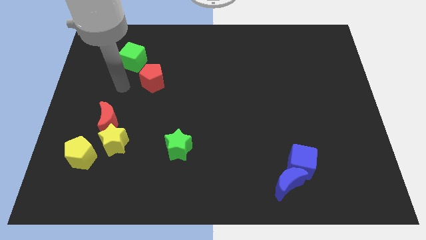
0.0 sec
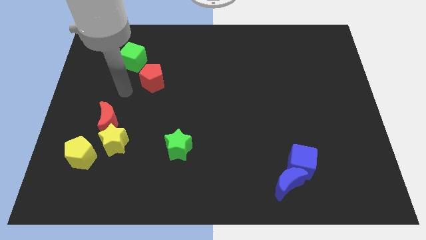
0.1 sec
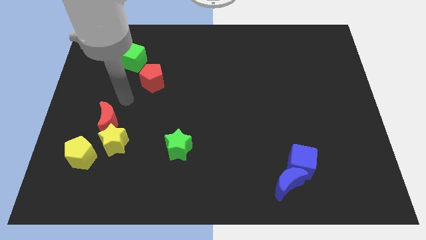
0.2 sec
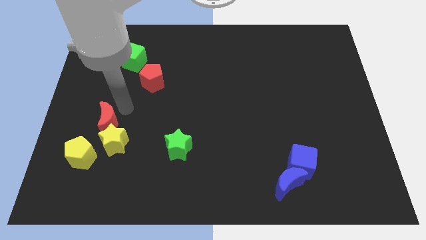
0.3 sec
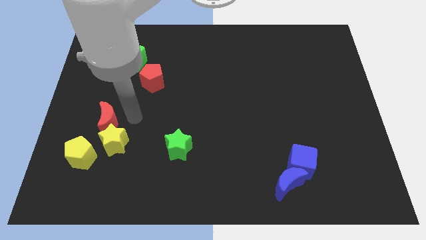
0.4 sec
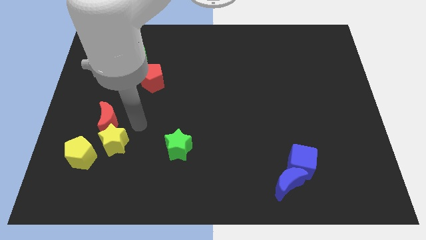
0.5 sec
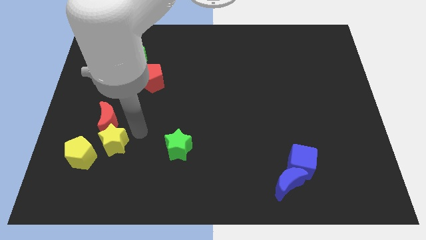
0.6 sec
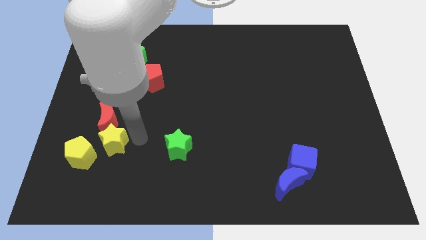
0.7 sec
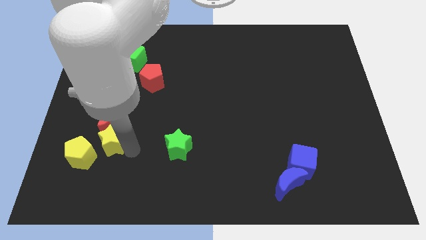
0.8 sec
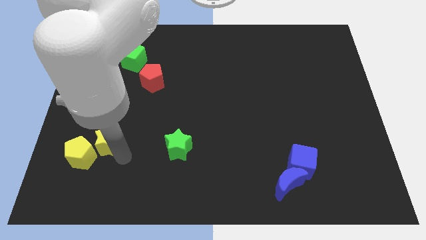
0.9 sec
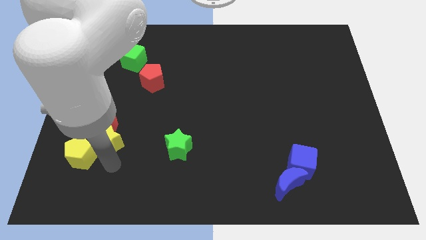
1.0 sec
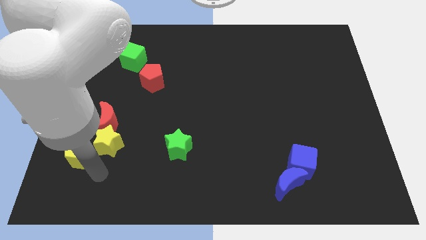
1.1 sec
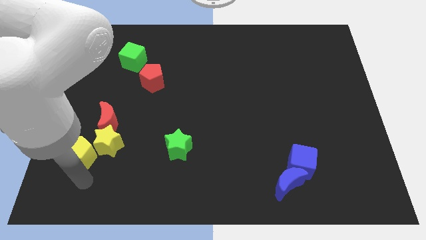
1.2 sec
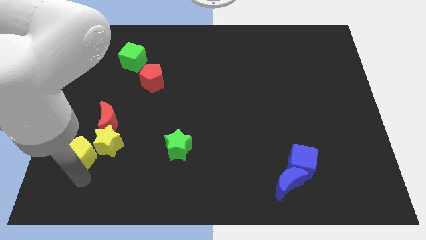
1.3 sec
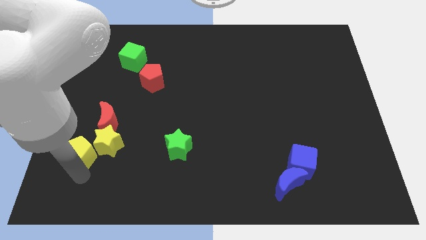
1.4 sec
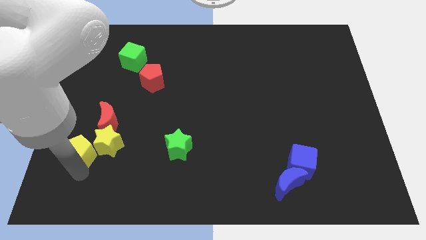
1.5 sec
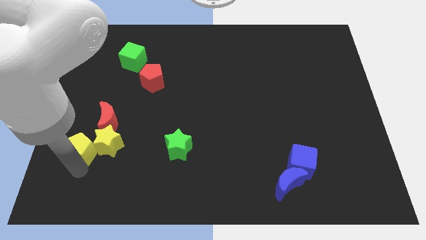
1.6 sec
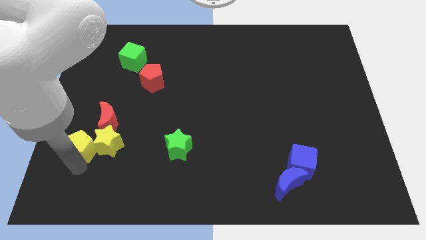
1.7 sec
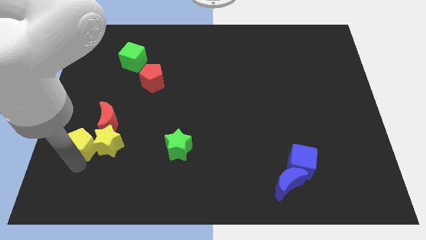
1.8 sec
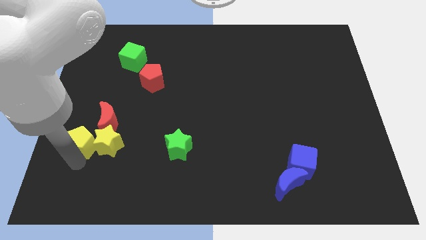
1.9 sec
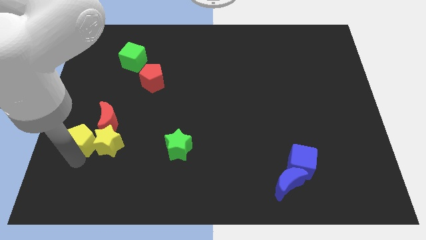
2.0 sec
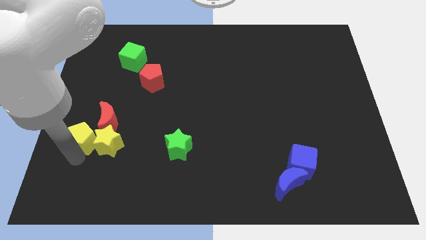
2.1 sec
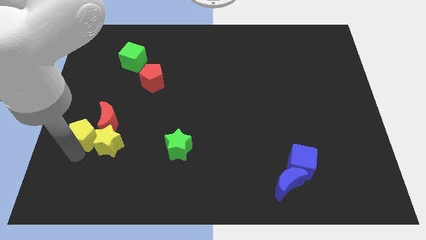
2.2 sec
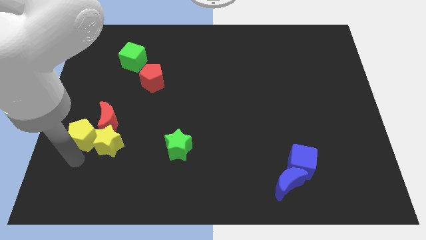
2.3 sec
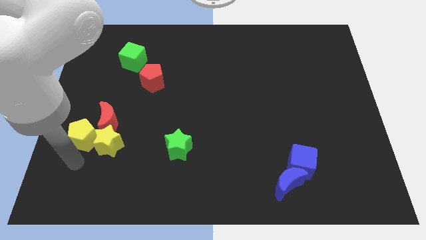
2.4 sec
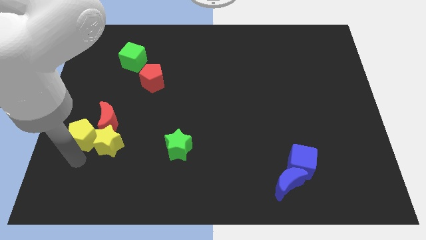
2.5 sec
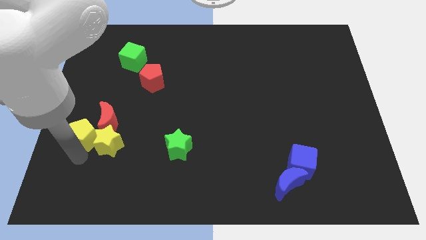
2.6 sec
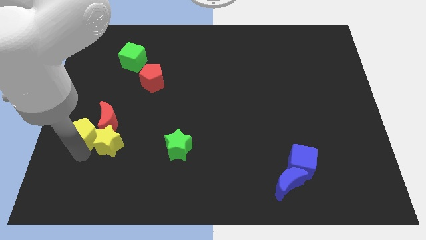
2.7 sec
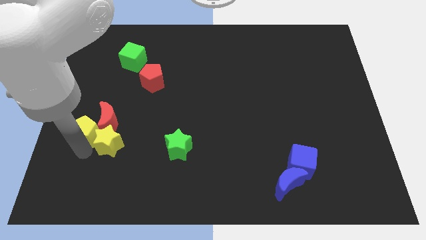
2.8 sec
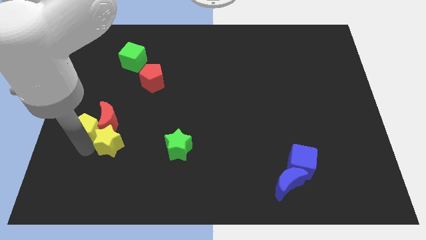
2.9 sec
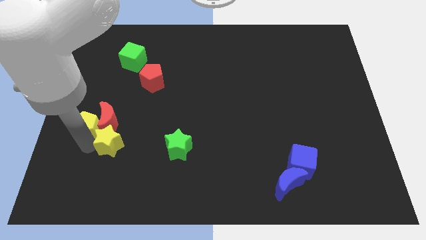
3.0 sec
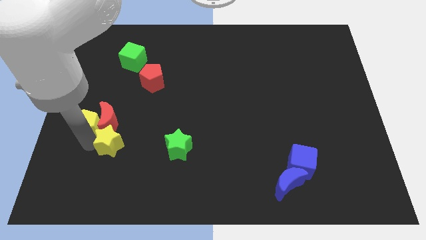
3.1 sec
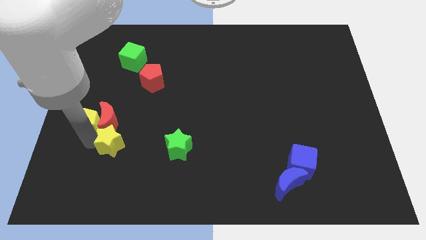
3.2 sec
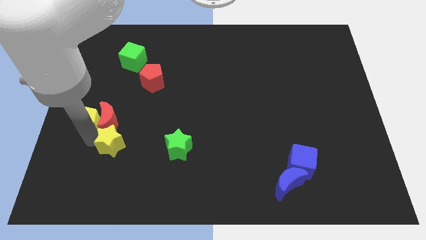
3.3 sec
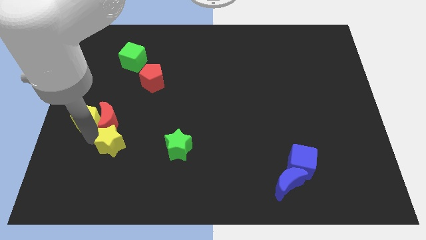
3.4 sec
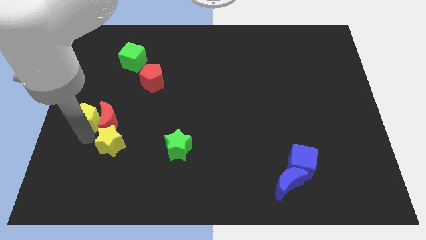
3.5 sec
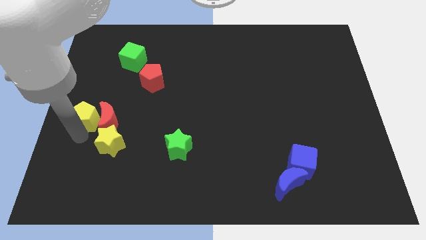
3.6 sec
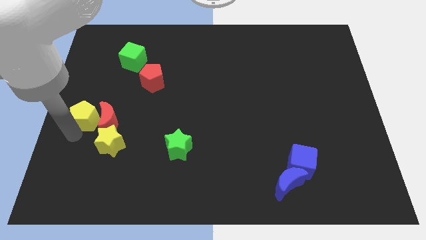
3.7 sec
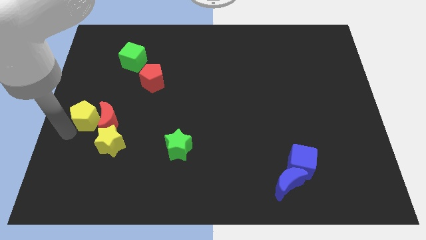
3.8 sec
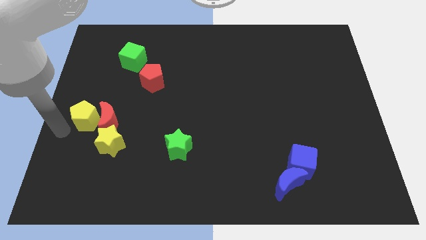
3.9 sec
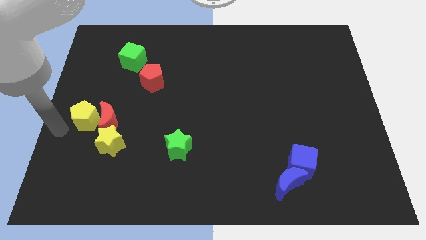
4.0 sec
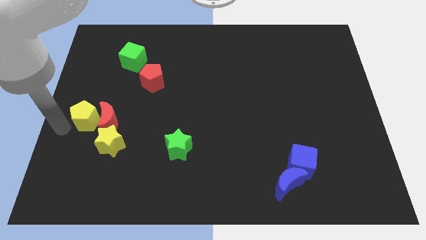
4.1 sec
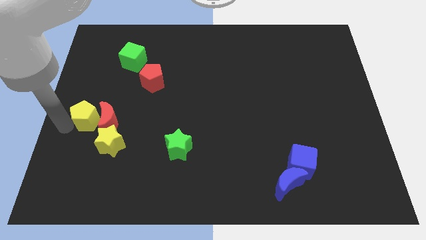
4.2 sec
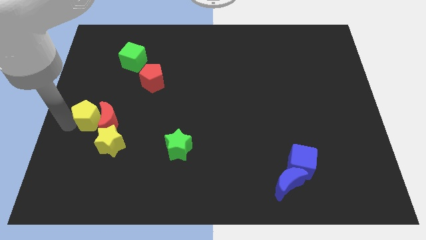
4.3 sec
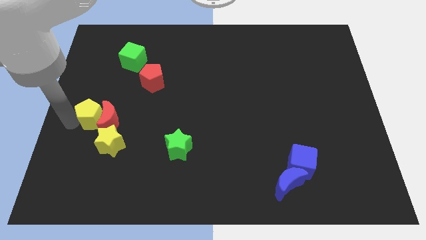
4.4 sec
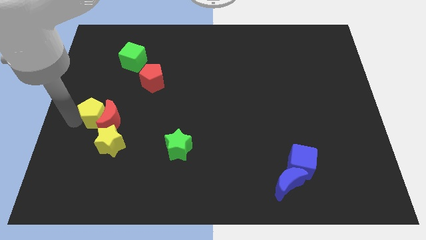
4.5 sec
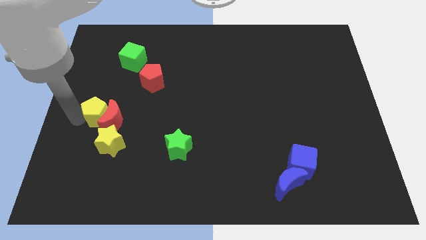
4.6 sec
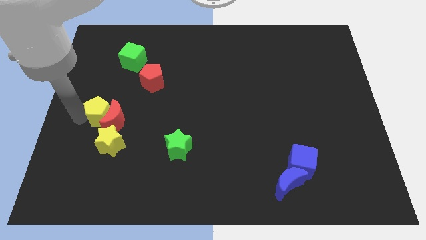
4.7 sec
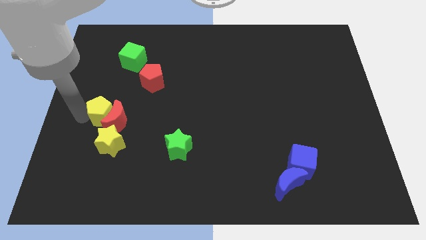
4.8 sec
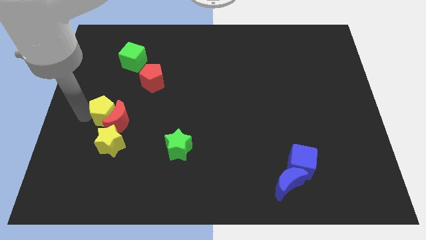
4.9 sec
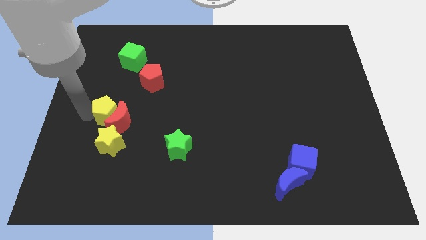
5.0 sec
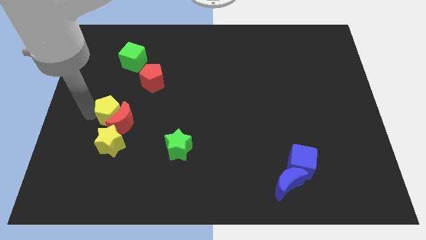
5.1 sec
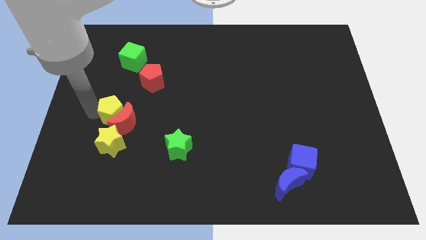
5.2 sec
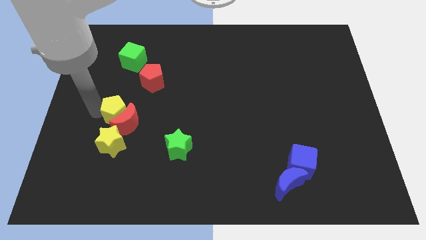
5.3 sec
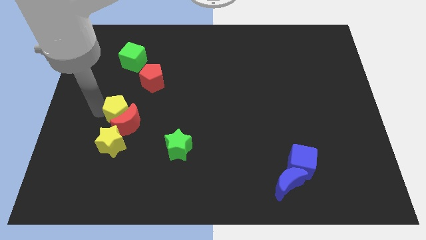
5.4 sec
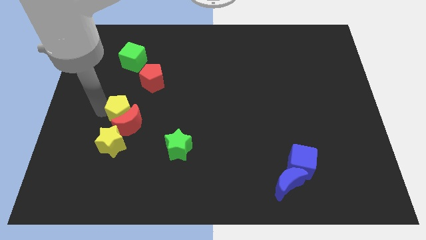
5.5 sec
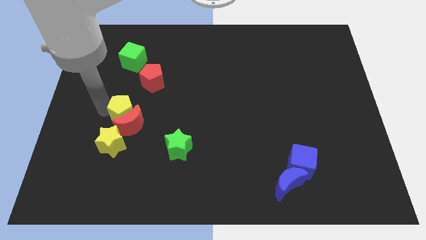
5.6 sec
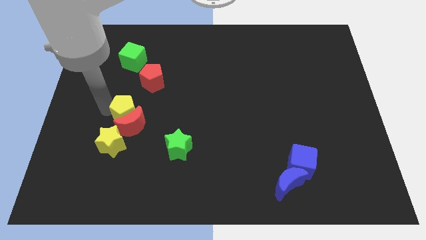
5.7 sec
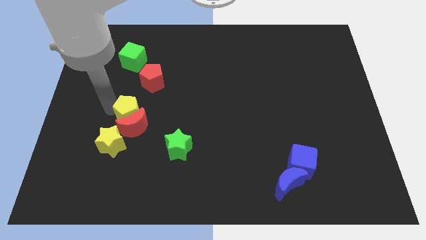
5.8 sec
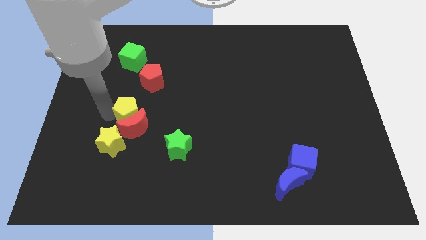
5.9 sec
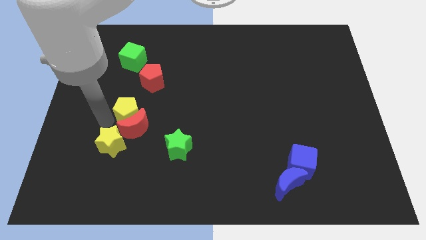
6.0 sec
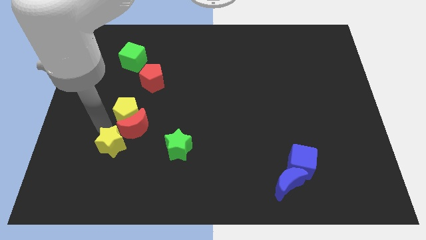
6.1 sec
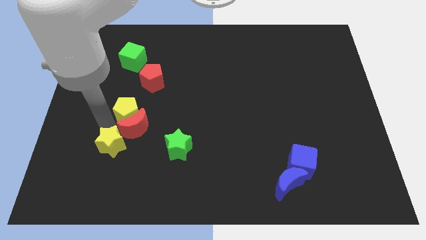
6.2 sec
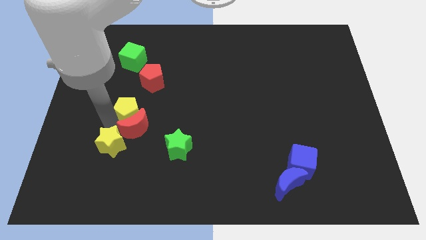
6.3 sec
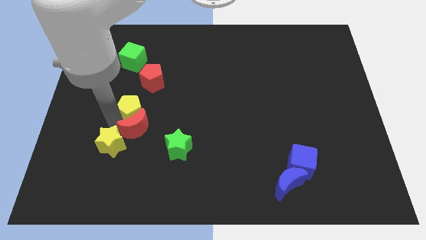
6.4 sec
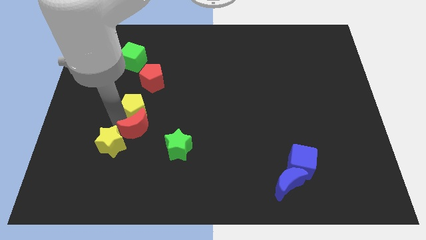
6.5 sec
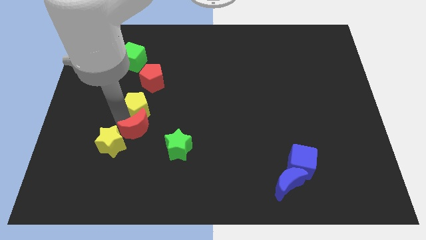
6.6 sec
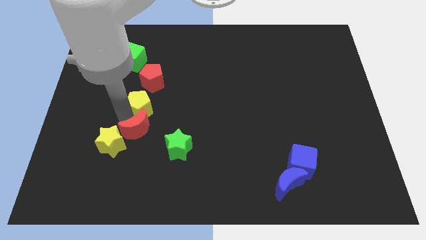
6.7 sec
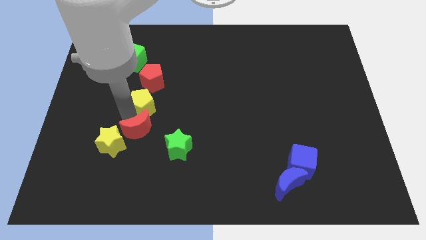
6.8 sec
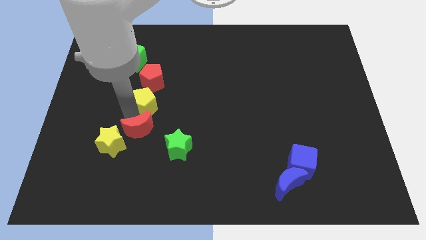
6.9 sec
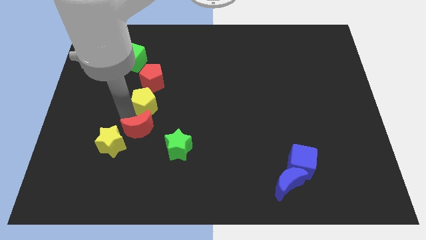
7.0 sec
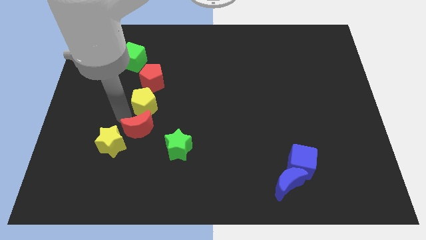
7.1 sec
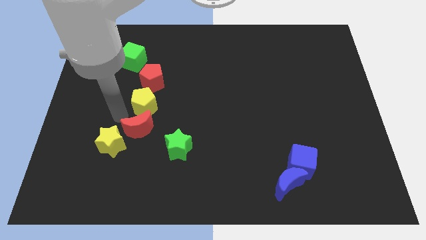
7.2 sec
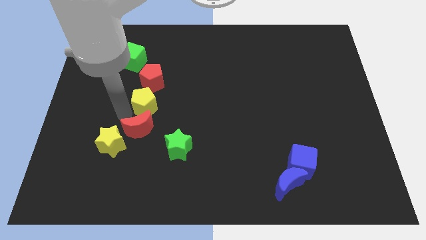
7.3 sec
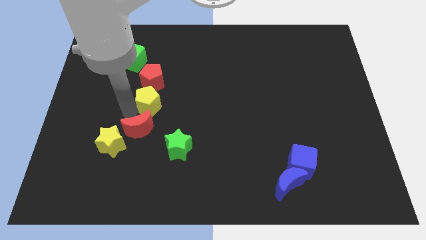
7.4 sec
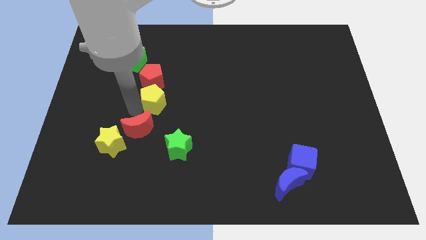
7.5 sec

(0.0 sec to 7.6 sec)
slide the yellow pentagon up and right diagonally

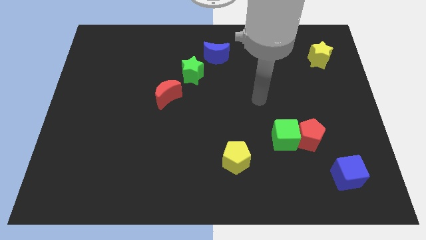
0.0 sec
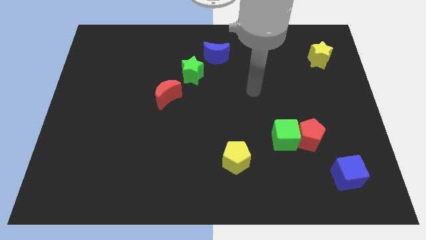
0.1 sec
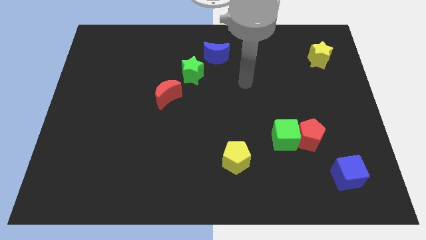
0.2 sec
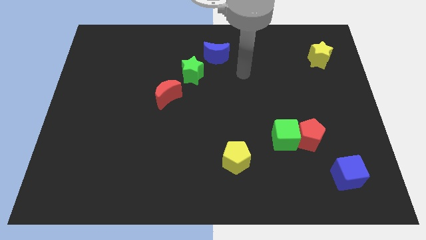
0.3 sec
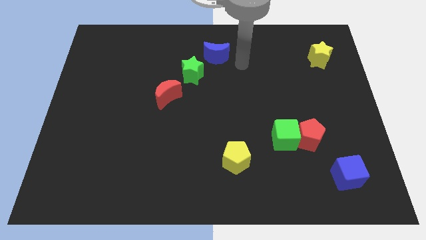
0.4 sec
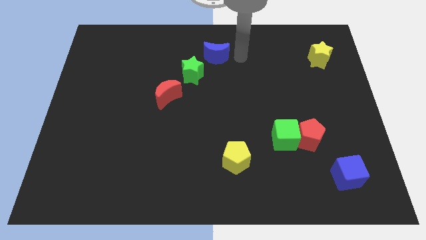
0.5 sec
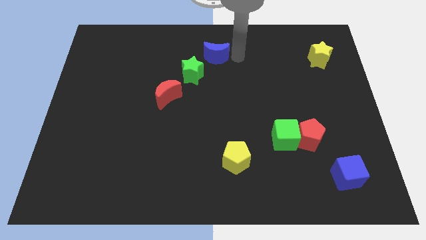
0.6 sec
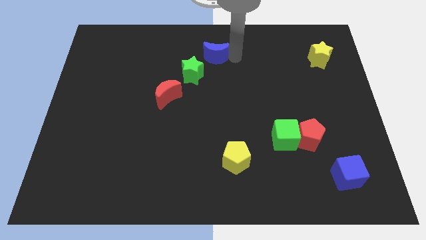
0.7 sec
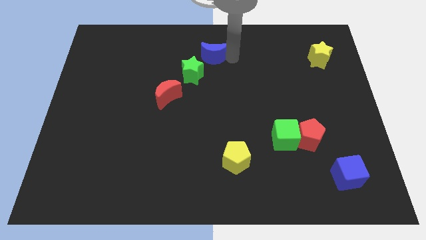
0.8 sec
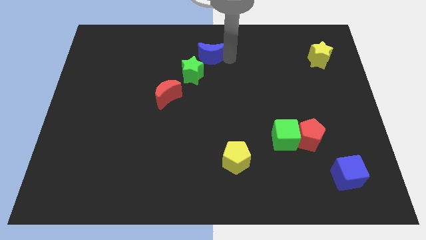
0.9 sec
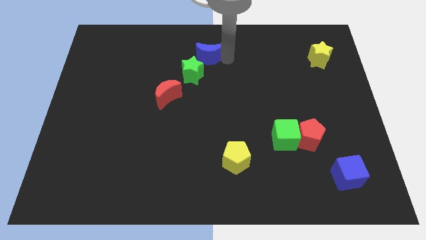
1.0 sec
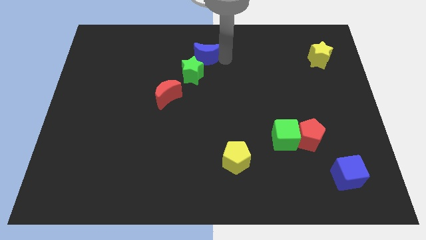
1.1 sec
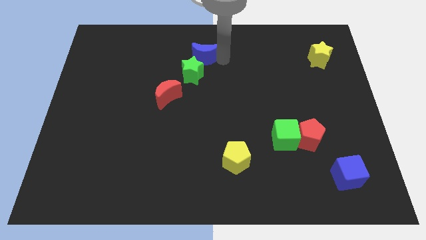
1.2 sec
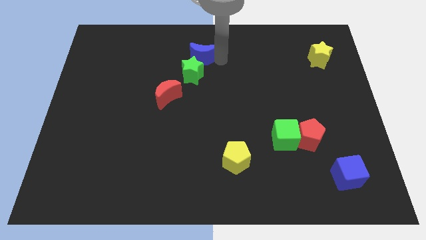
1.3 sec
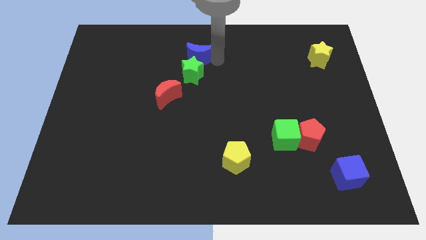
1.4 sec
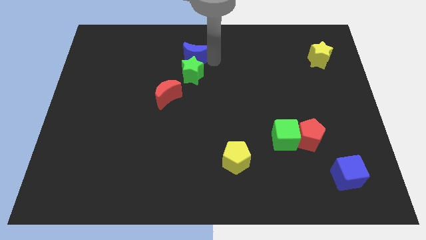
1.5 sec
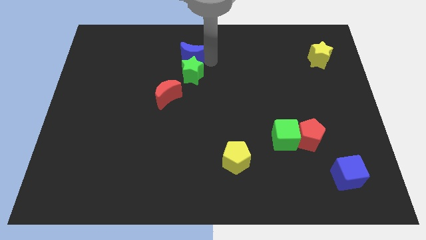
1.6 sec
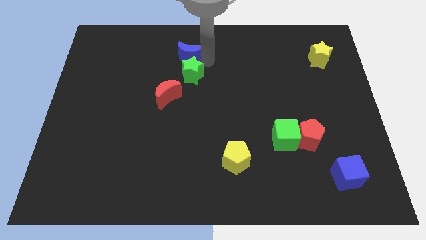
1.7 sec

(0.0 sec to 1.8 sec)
push the blue moon a bit left
